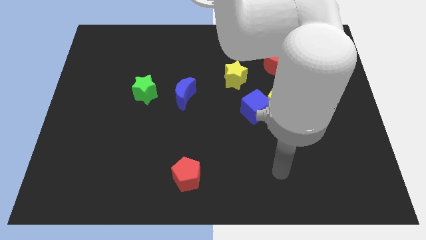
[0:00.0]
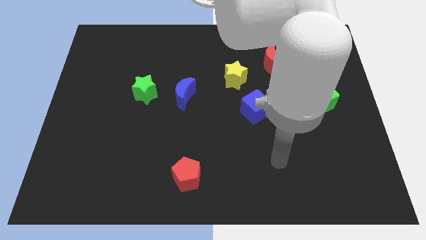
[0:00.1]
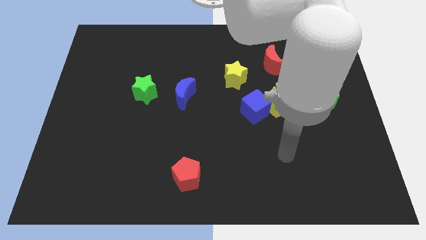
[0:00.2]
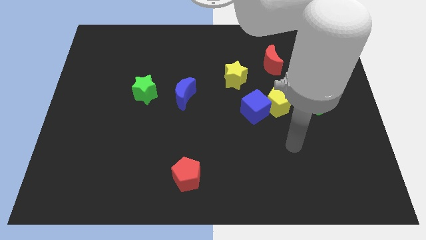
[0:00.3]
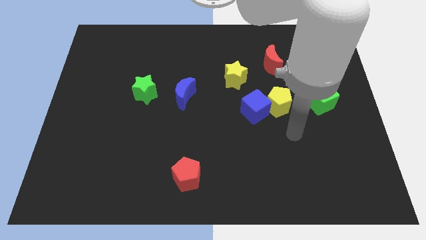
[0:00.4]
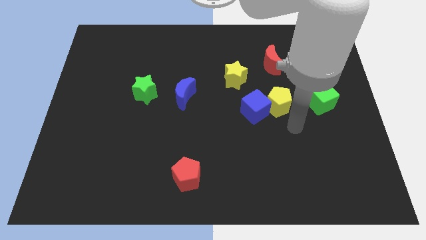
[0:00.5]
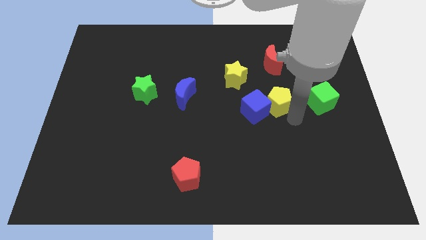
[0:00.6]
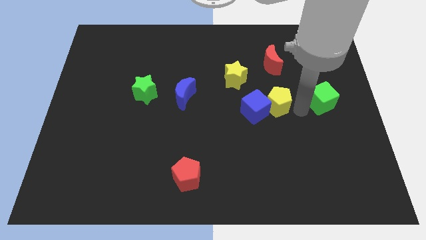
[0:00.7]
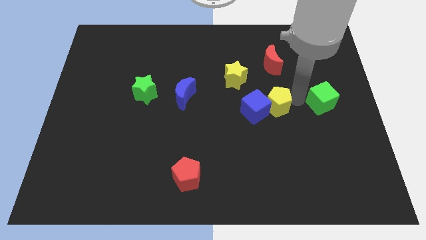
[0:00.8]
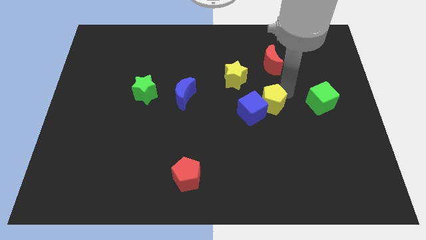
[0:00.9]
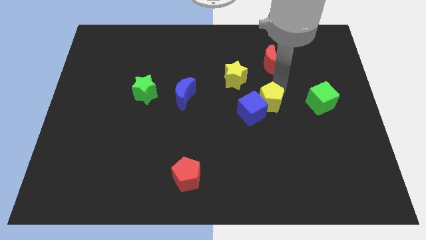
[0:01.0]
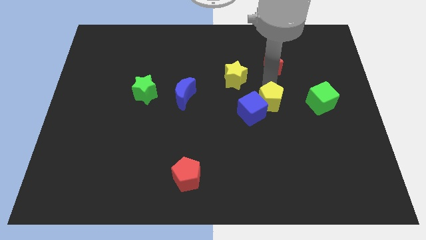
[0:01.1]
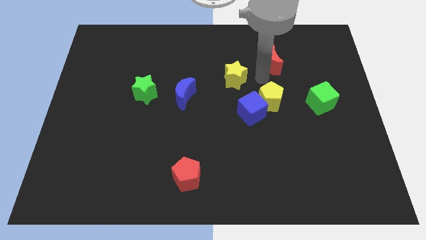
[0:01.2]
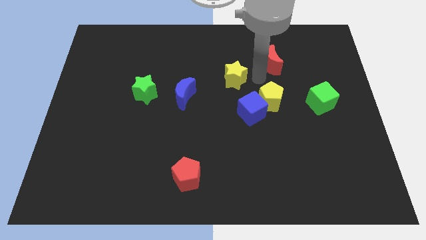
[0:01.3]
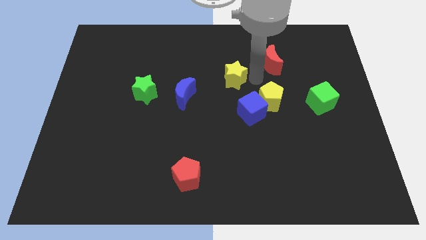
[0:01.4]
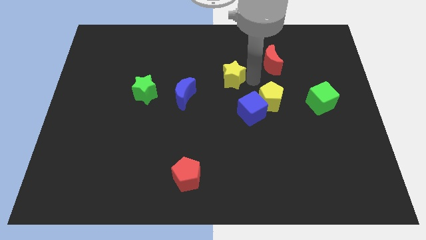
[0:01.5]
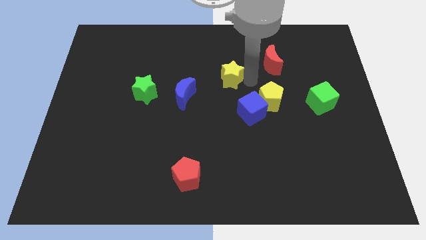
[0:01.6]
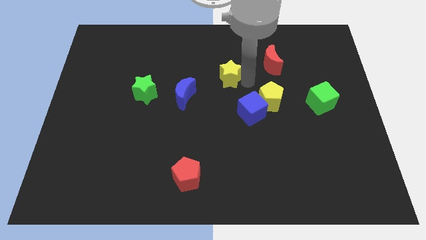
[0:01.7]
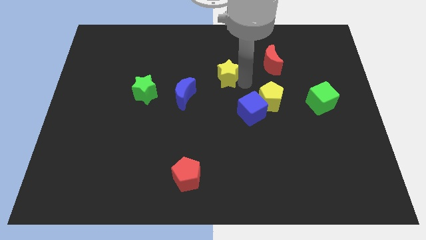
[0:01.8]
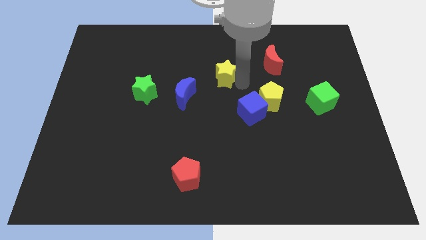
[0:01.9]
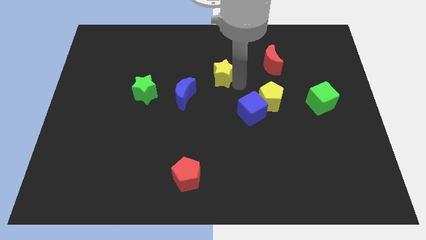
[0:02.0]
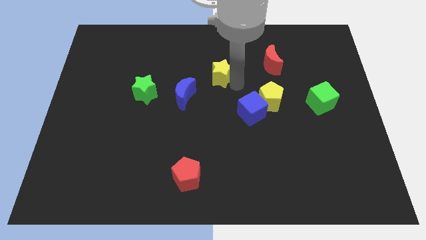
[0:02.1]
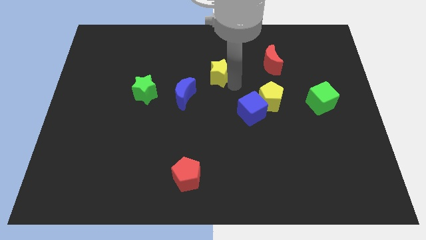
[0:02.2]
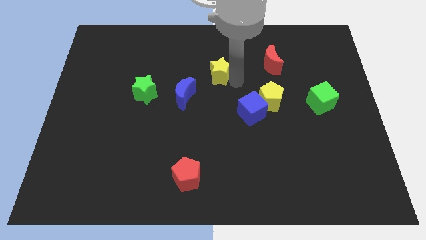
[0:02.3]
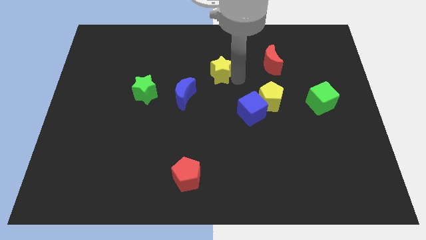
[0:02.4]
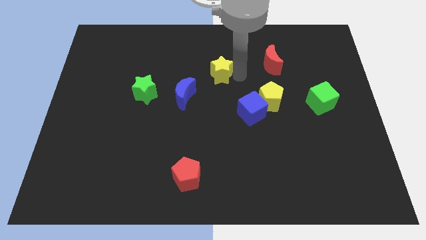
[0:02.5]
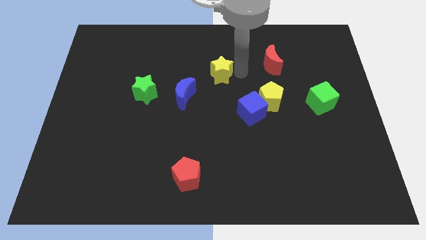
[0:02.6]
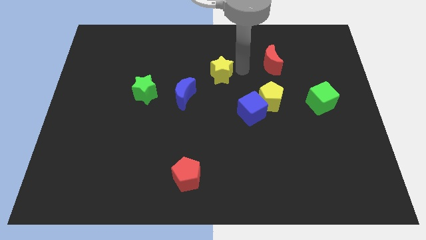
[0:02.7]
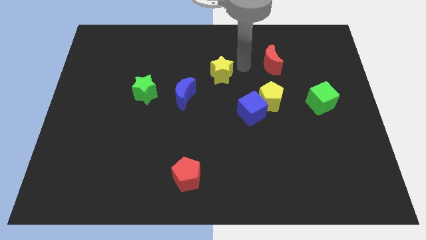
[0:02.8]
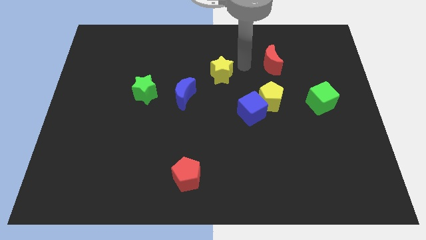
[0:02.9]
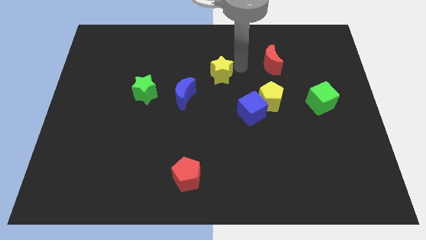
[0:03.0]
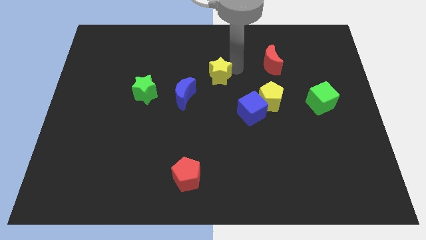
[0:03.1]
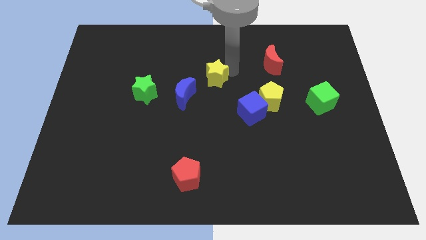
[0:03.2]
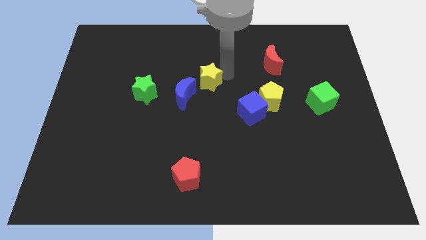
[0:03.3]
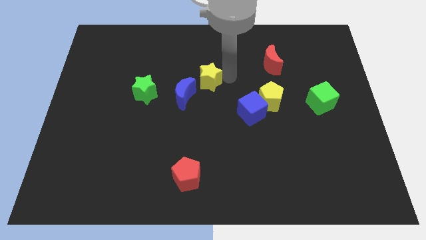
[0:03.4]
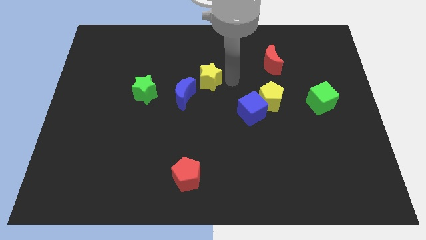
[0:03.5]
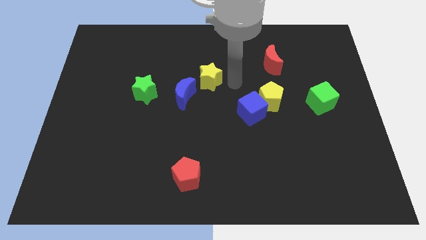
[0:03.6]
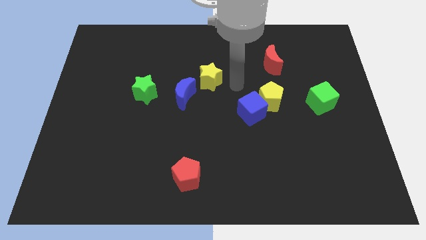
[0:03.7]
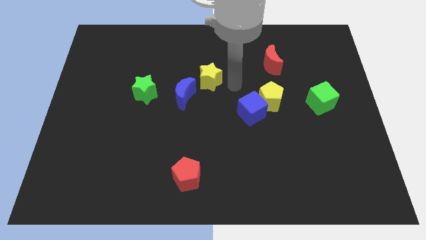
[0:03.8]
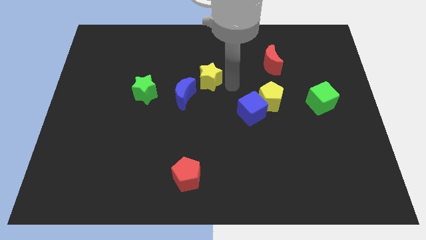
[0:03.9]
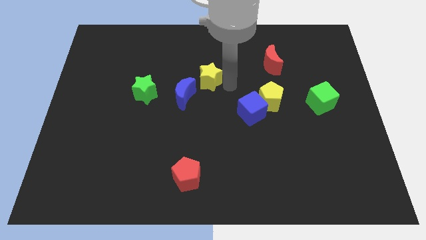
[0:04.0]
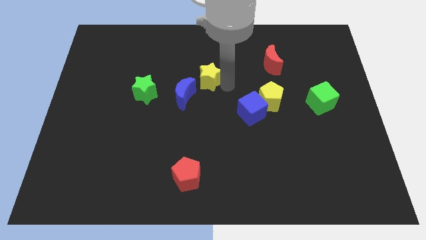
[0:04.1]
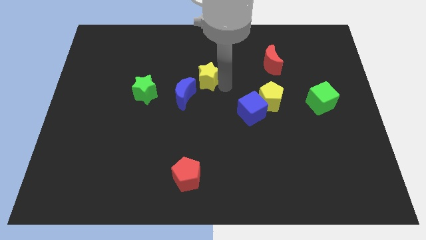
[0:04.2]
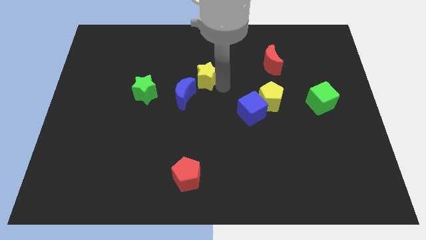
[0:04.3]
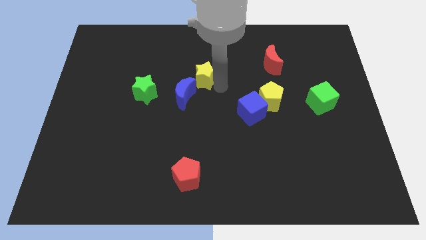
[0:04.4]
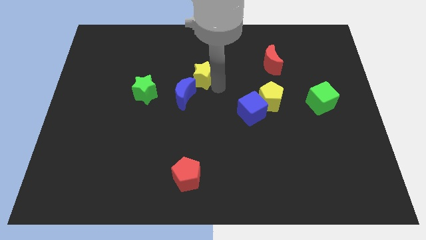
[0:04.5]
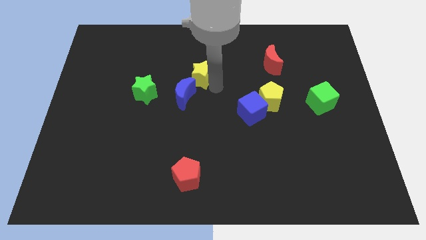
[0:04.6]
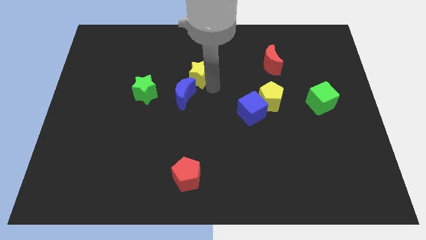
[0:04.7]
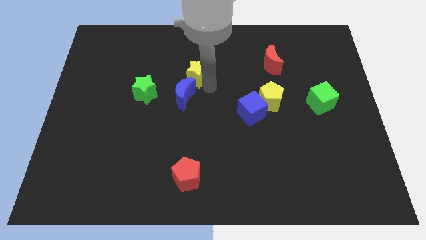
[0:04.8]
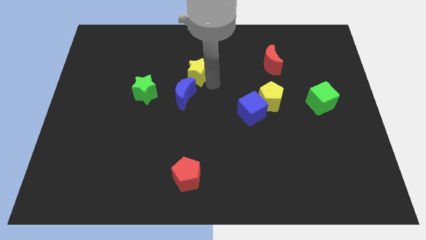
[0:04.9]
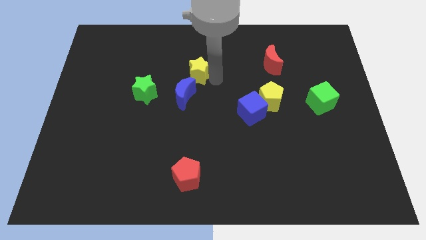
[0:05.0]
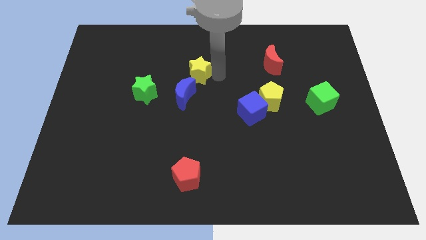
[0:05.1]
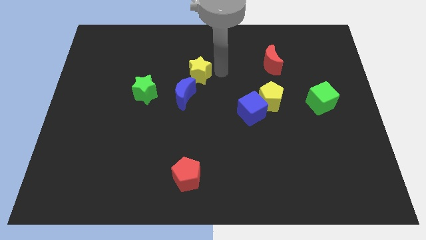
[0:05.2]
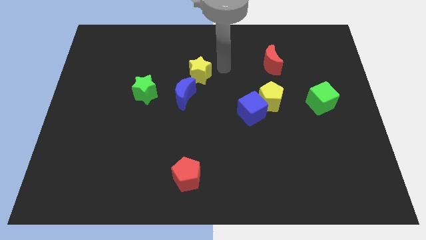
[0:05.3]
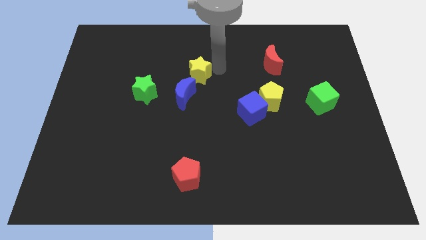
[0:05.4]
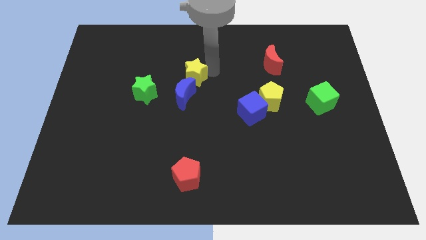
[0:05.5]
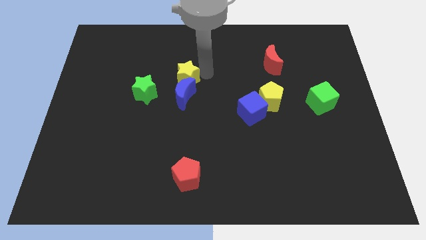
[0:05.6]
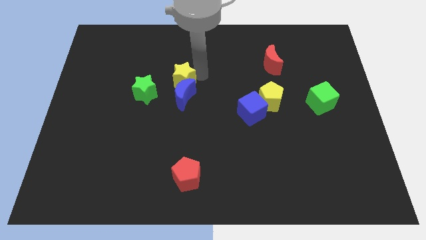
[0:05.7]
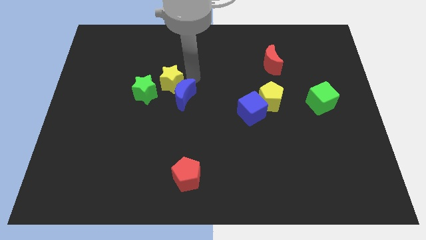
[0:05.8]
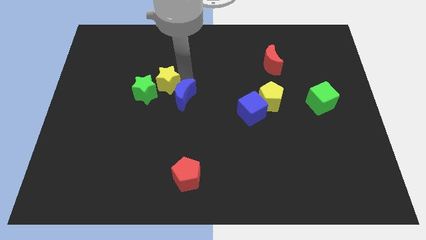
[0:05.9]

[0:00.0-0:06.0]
push the yellow star close to the green star

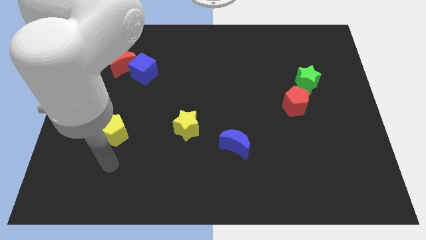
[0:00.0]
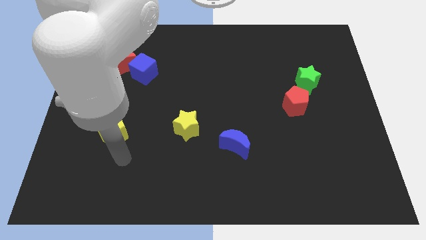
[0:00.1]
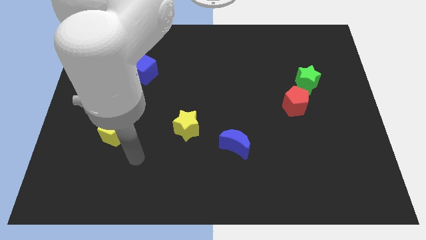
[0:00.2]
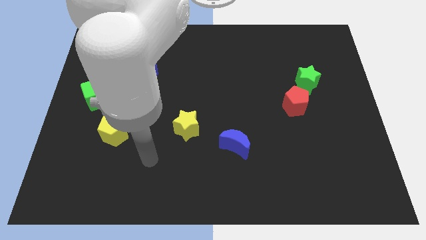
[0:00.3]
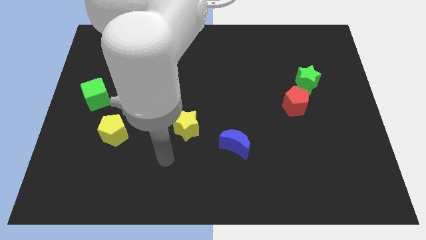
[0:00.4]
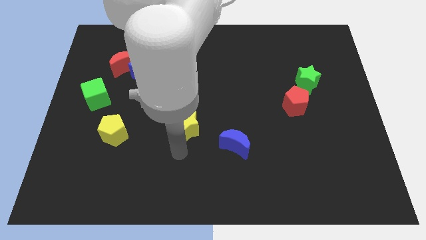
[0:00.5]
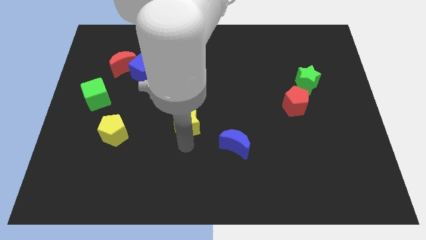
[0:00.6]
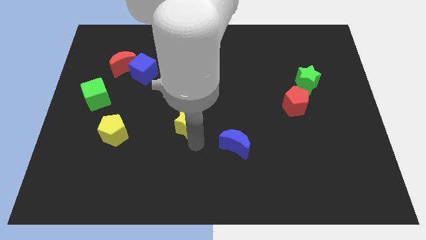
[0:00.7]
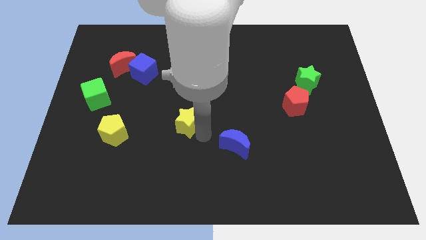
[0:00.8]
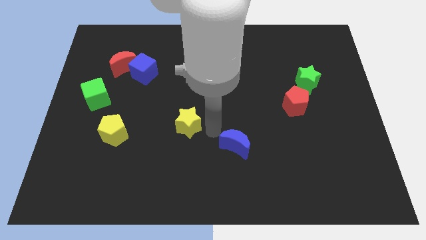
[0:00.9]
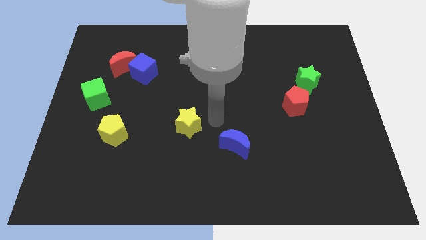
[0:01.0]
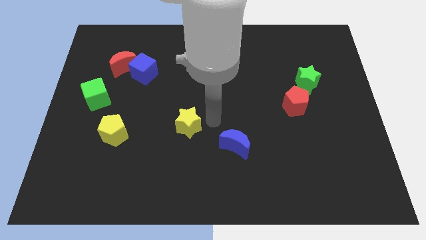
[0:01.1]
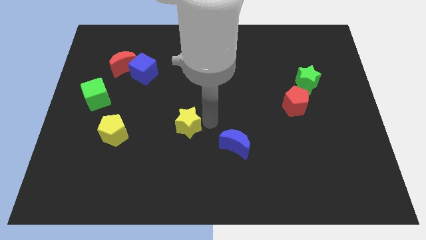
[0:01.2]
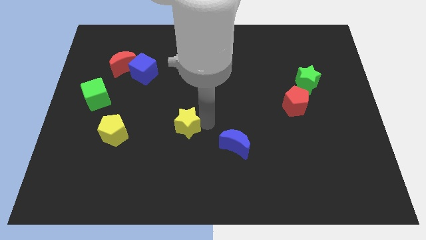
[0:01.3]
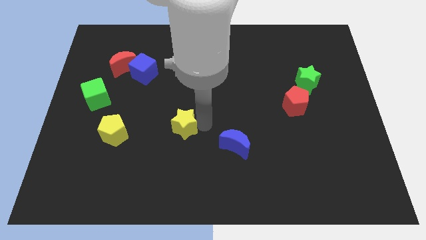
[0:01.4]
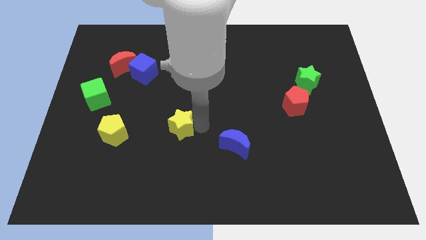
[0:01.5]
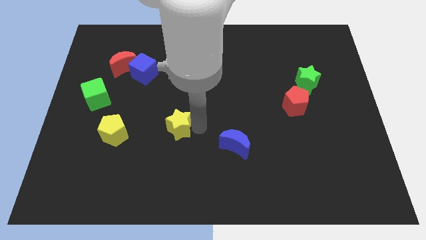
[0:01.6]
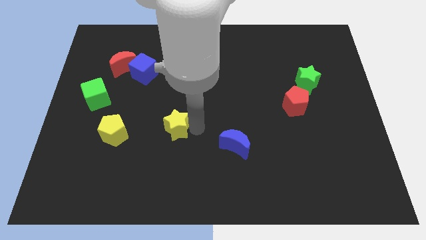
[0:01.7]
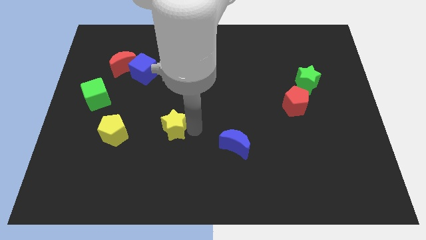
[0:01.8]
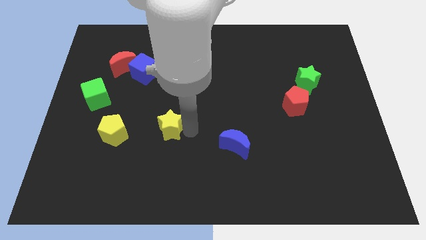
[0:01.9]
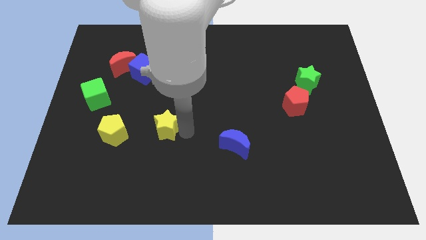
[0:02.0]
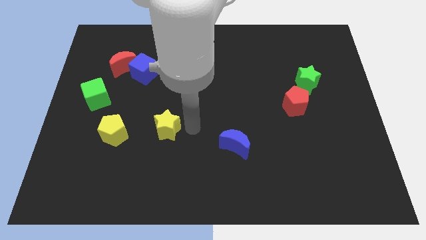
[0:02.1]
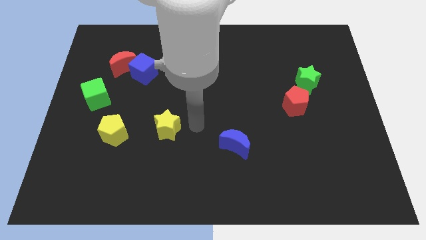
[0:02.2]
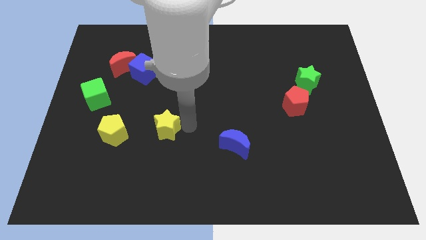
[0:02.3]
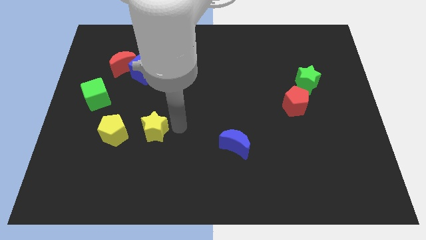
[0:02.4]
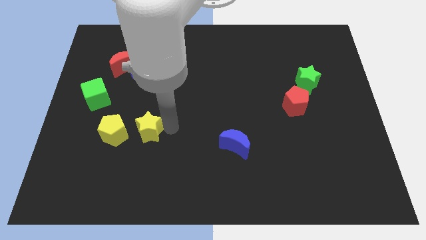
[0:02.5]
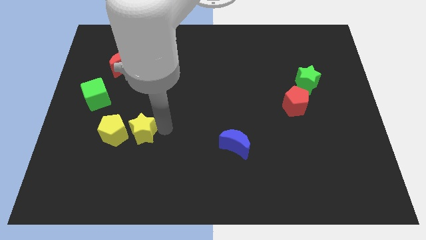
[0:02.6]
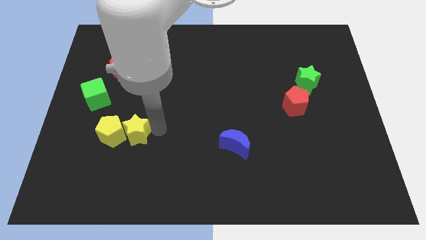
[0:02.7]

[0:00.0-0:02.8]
slide the yellow star next to the yellow pentagon
